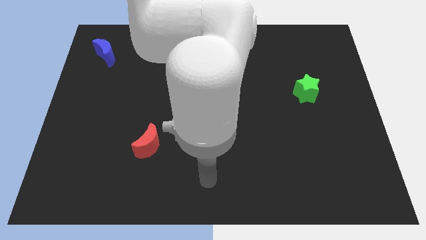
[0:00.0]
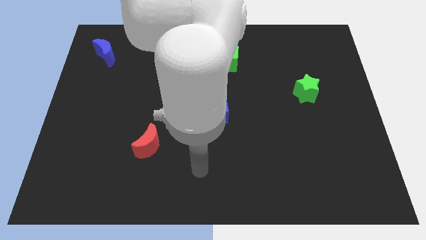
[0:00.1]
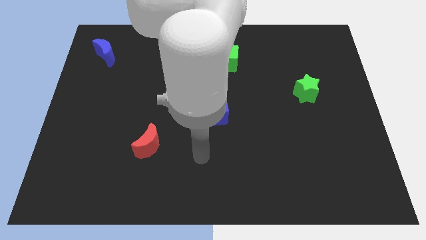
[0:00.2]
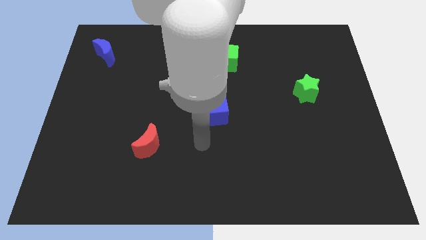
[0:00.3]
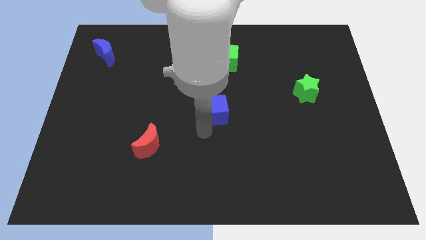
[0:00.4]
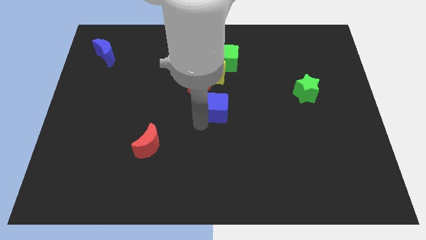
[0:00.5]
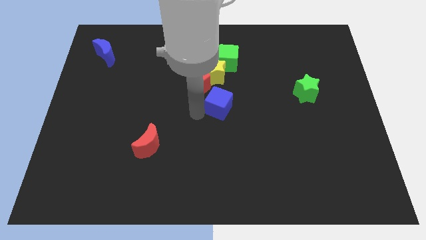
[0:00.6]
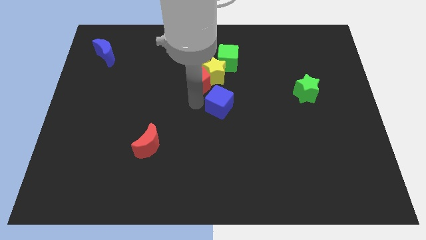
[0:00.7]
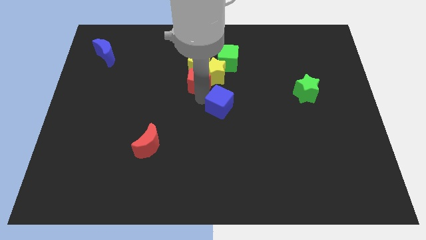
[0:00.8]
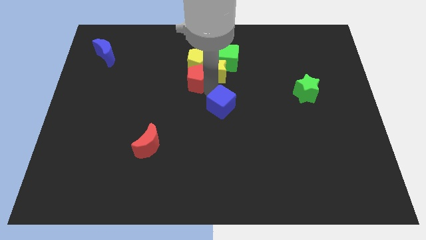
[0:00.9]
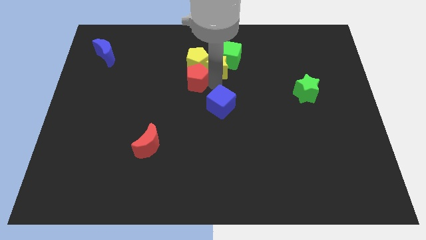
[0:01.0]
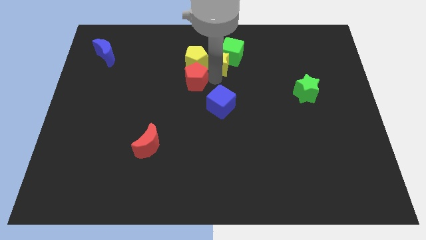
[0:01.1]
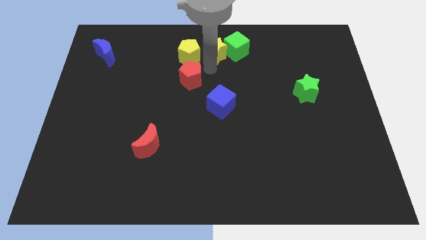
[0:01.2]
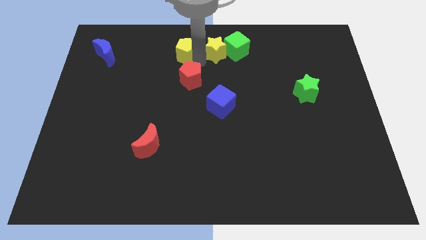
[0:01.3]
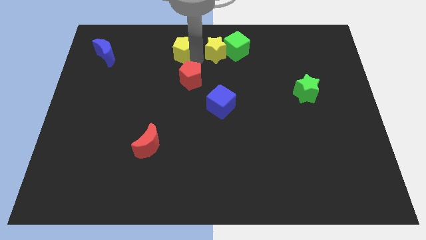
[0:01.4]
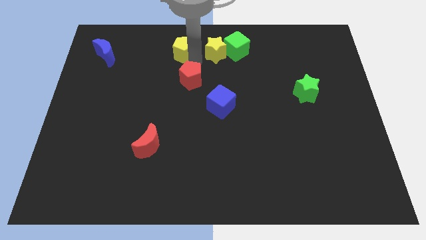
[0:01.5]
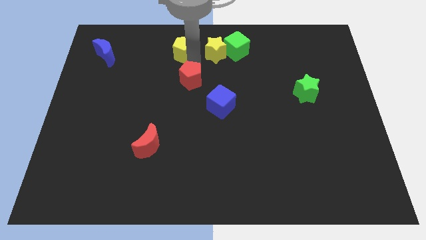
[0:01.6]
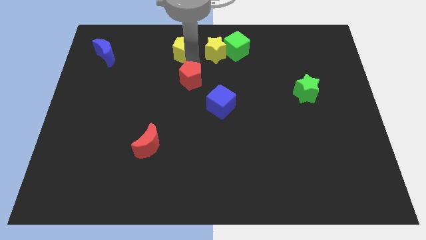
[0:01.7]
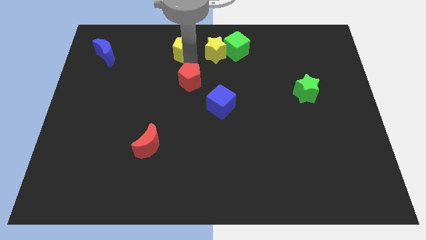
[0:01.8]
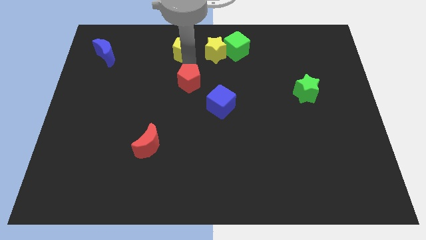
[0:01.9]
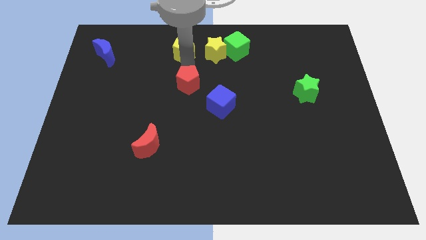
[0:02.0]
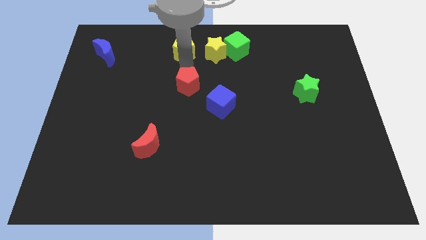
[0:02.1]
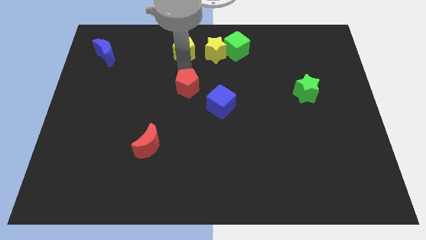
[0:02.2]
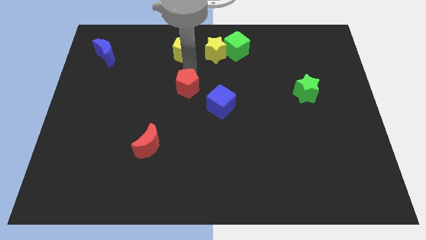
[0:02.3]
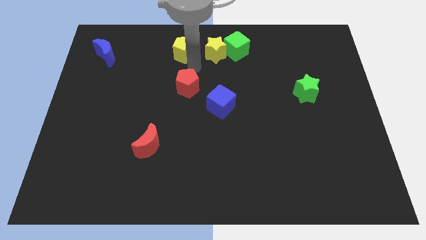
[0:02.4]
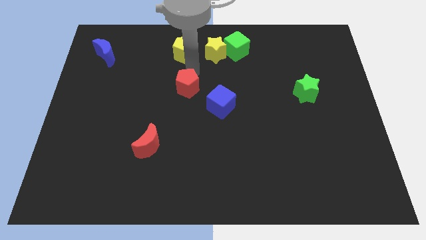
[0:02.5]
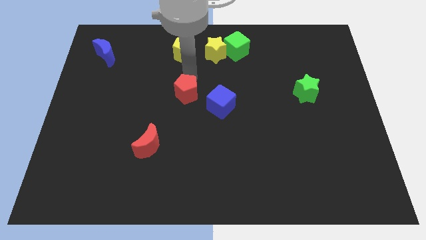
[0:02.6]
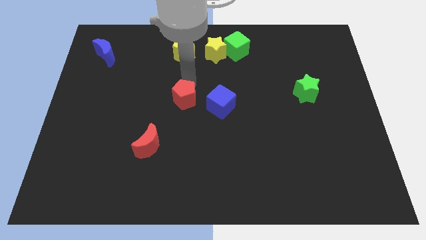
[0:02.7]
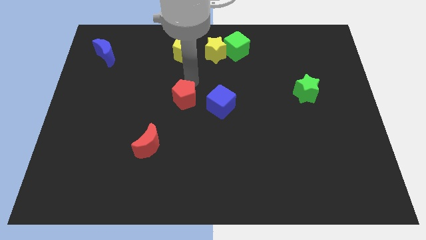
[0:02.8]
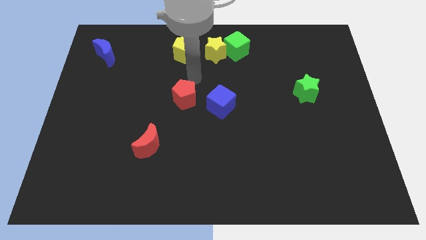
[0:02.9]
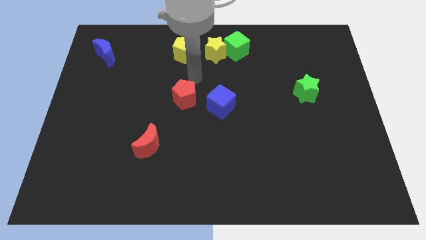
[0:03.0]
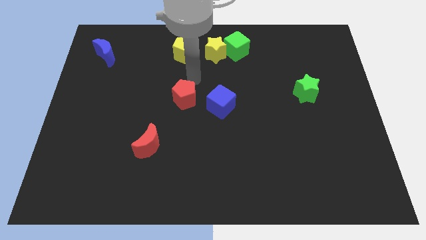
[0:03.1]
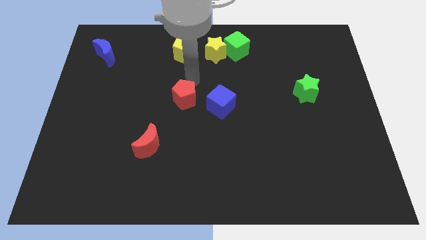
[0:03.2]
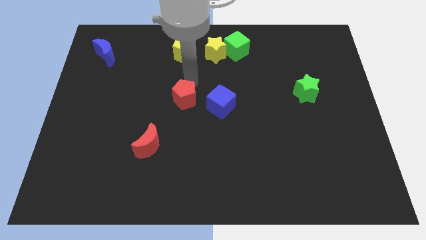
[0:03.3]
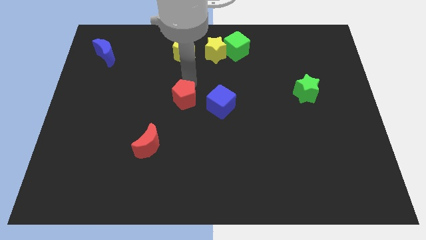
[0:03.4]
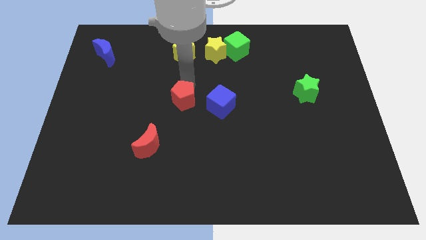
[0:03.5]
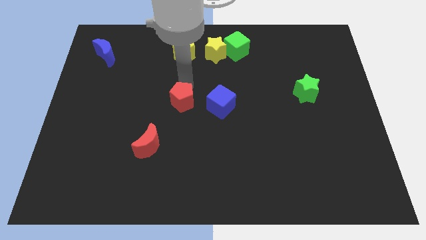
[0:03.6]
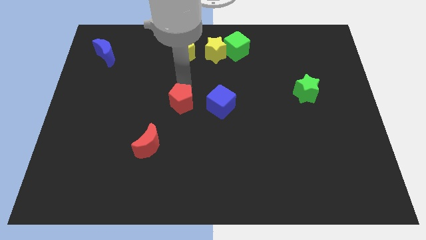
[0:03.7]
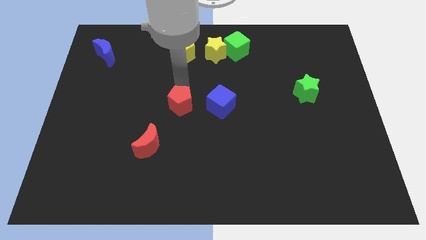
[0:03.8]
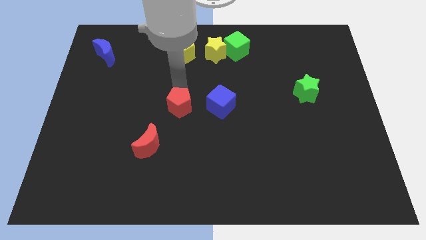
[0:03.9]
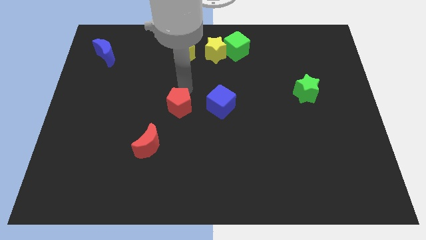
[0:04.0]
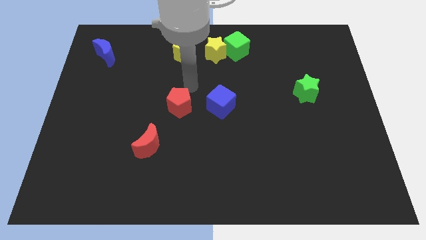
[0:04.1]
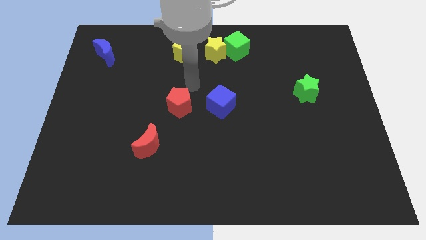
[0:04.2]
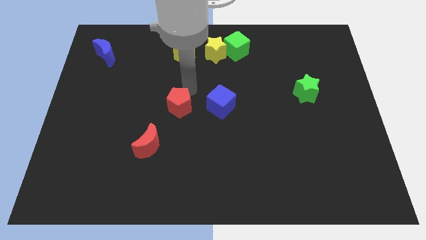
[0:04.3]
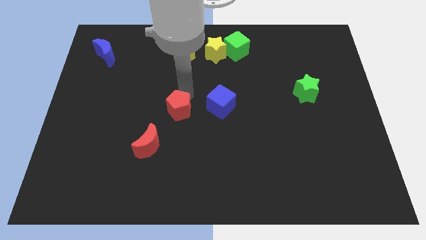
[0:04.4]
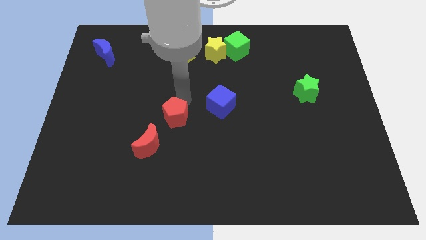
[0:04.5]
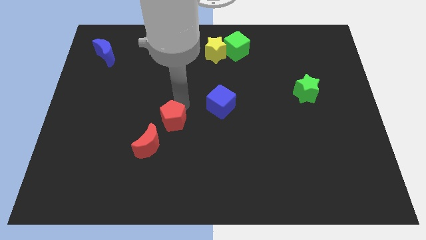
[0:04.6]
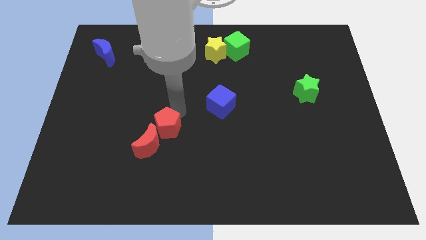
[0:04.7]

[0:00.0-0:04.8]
move the red pentagon to the red moon

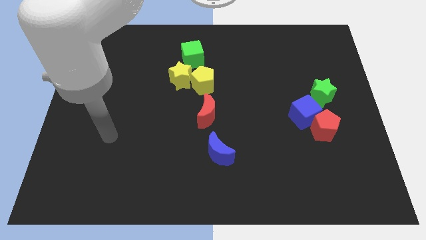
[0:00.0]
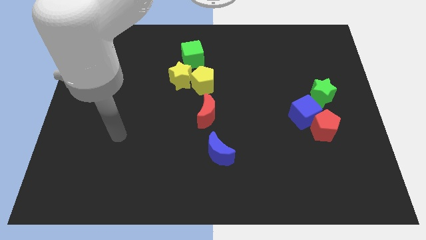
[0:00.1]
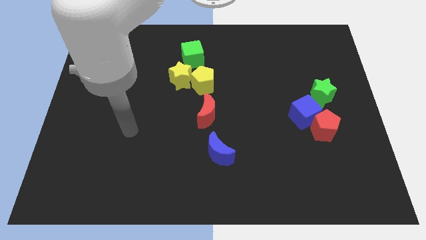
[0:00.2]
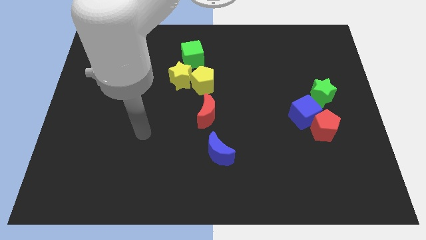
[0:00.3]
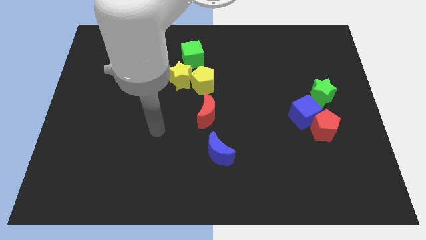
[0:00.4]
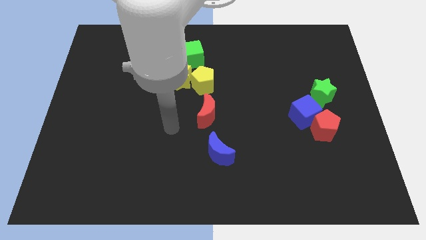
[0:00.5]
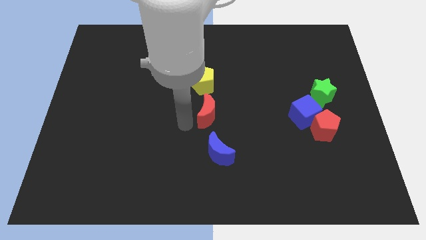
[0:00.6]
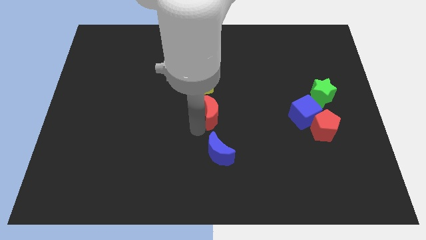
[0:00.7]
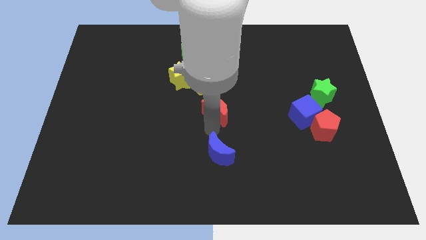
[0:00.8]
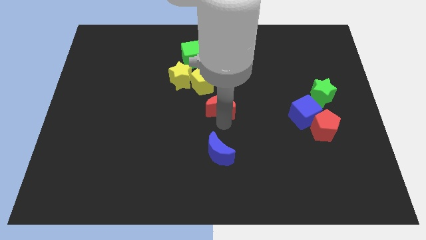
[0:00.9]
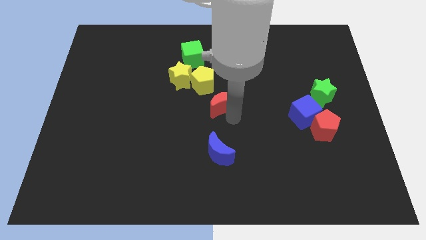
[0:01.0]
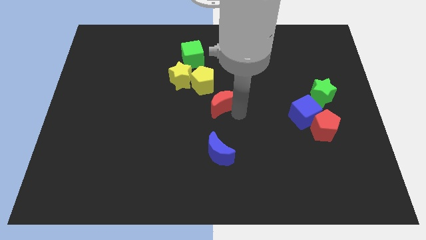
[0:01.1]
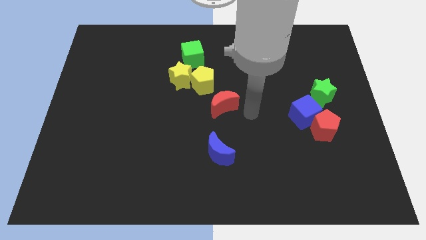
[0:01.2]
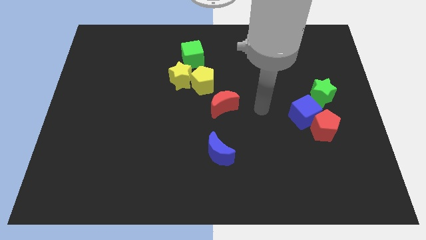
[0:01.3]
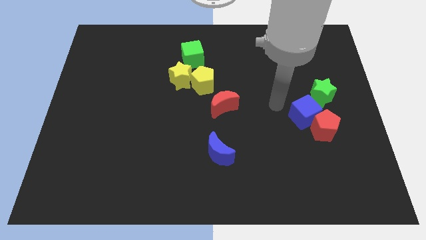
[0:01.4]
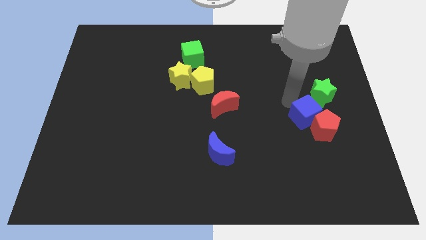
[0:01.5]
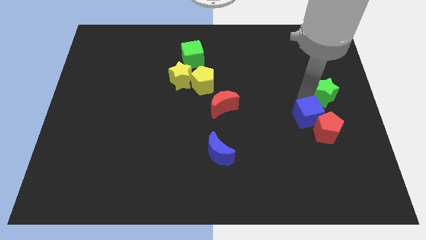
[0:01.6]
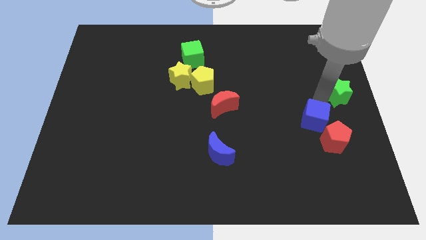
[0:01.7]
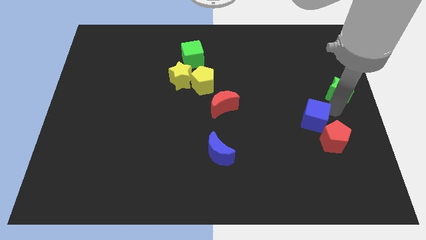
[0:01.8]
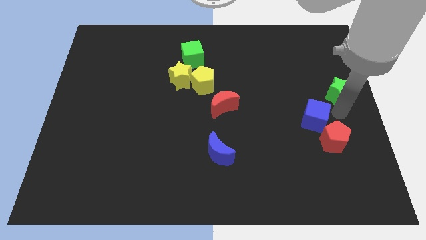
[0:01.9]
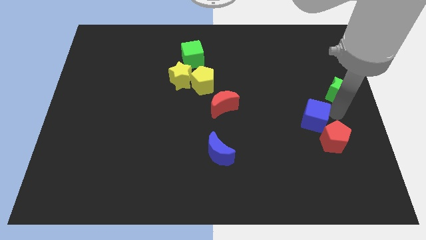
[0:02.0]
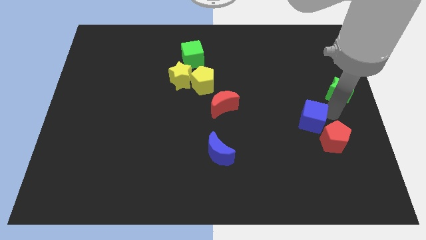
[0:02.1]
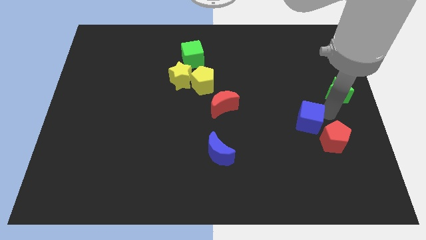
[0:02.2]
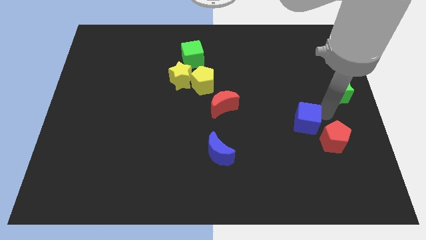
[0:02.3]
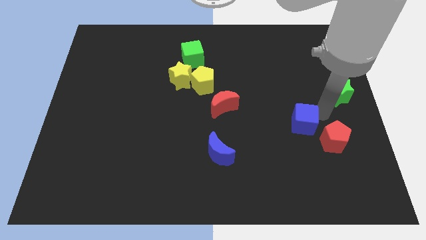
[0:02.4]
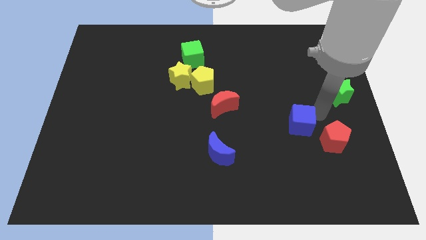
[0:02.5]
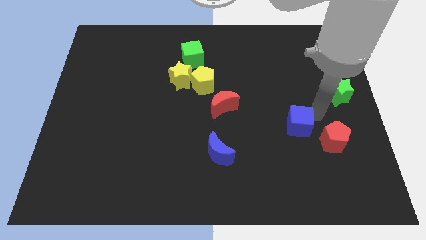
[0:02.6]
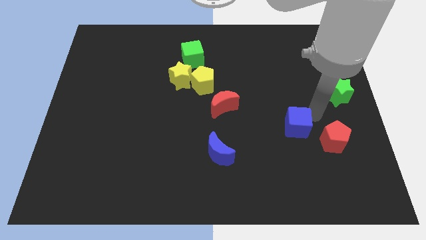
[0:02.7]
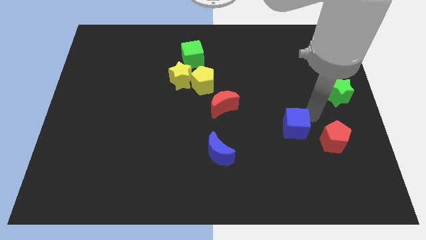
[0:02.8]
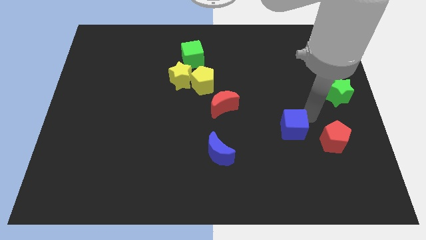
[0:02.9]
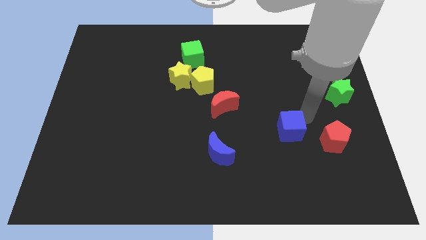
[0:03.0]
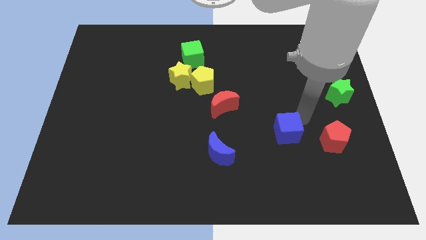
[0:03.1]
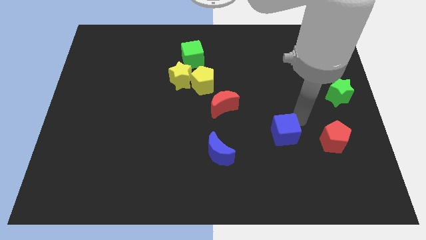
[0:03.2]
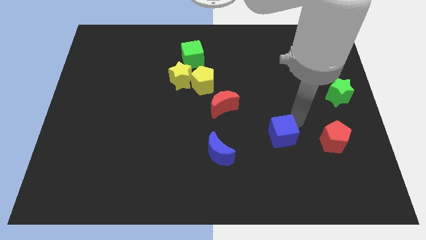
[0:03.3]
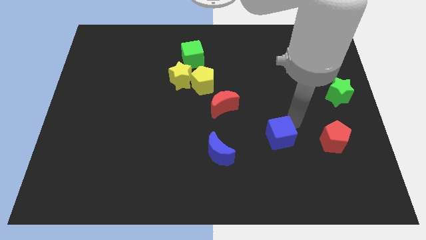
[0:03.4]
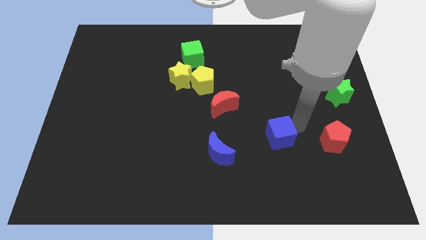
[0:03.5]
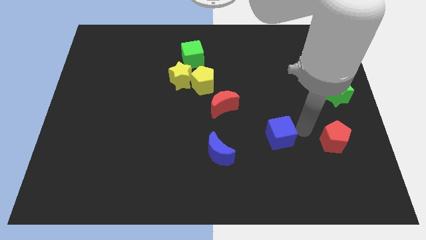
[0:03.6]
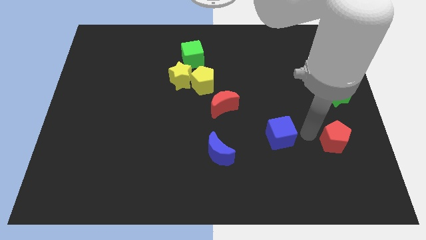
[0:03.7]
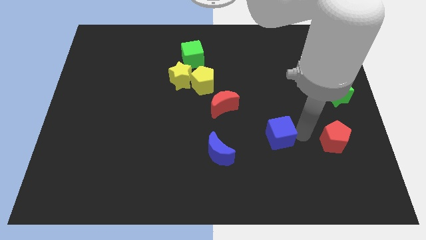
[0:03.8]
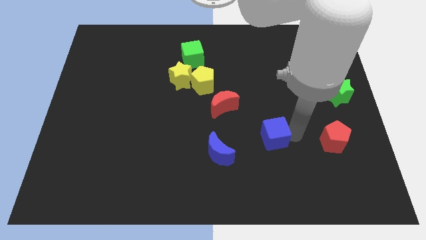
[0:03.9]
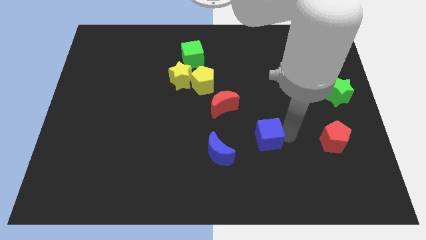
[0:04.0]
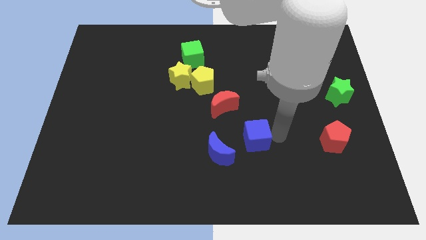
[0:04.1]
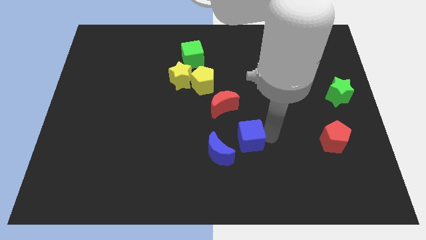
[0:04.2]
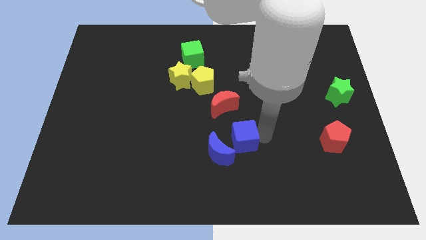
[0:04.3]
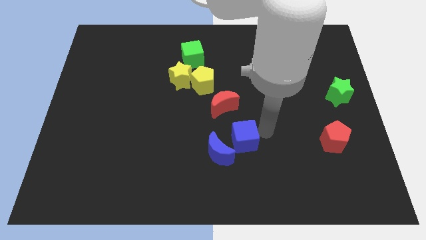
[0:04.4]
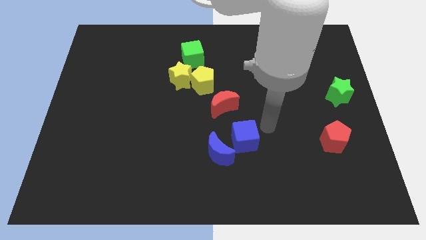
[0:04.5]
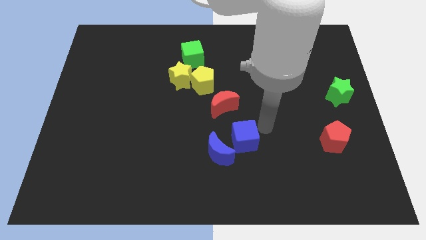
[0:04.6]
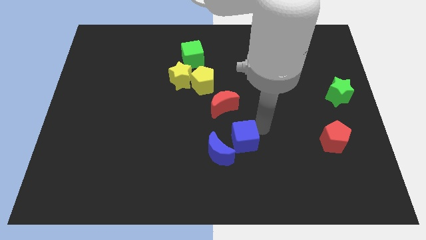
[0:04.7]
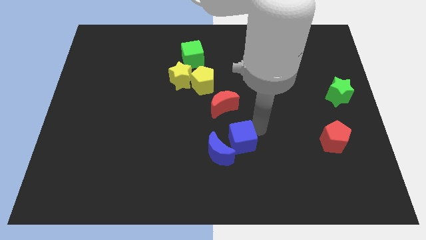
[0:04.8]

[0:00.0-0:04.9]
move the blue cube to the blue moon
